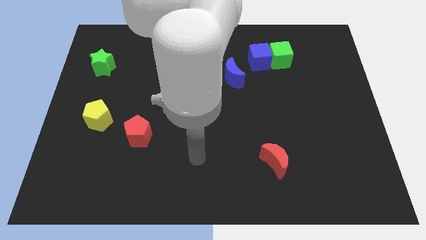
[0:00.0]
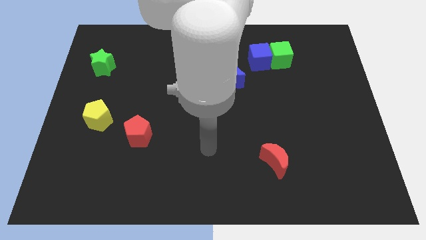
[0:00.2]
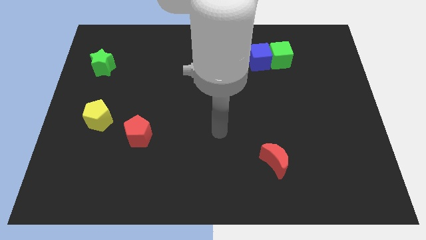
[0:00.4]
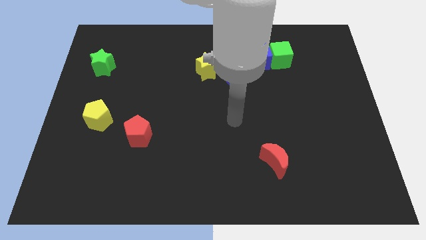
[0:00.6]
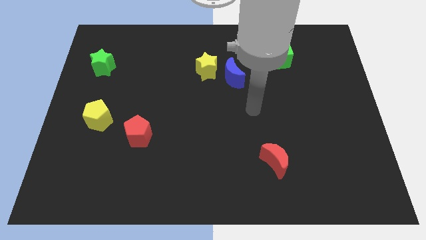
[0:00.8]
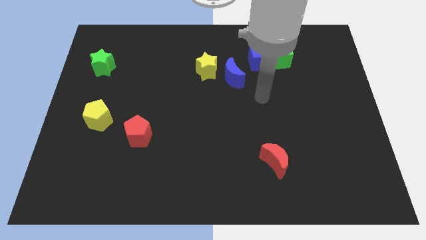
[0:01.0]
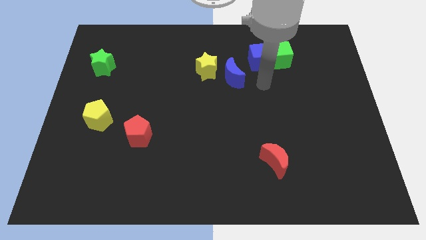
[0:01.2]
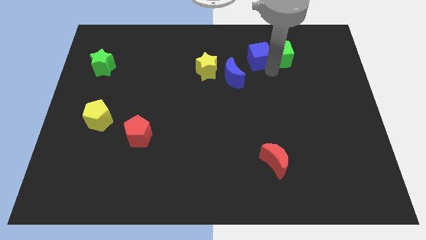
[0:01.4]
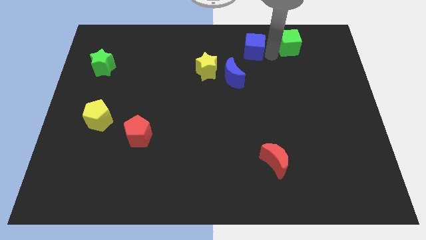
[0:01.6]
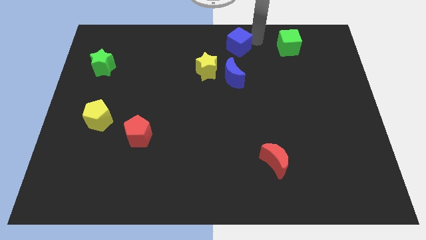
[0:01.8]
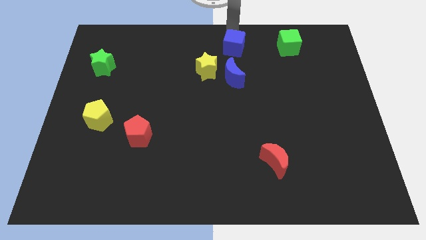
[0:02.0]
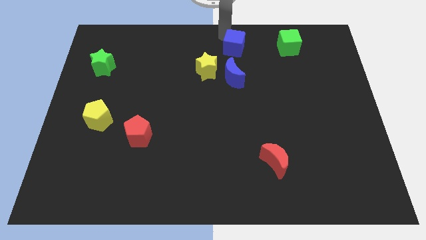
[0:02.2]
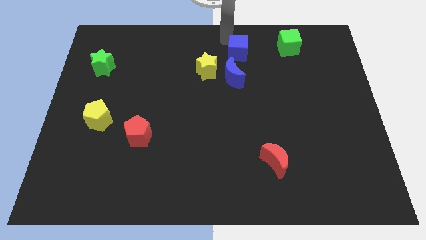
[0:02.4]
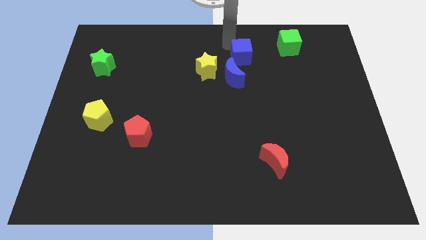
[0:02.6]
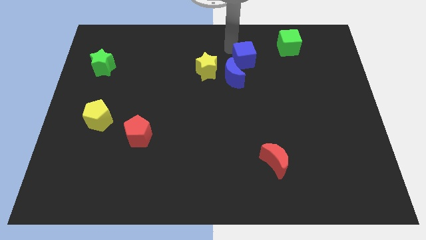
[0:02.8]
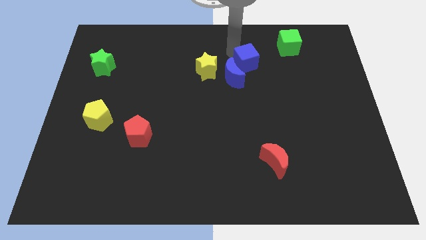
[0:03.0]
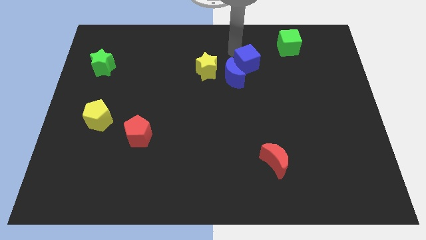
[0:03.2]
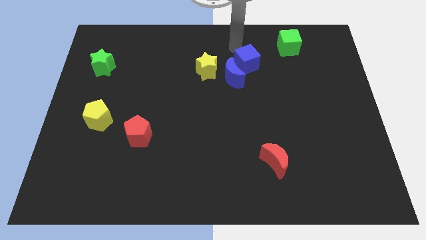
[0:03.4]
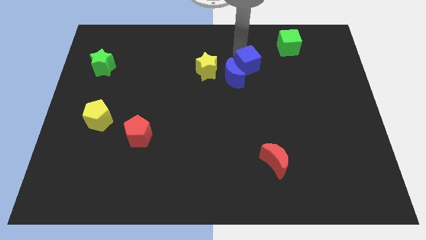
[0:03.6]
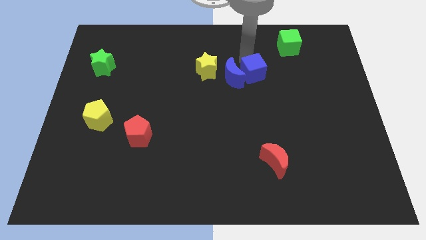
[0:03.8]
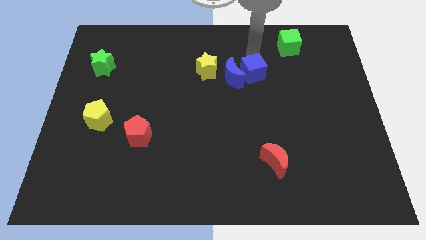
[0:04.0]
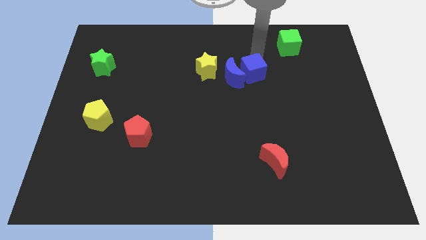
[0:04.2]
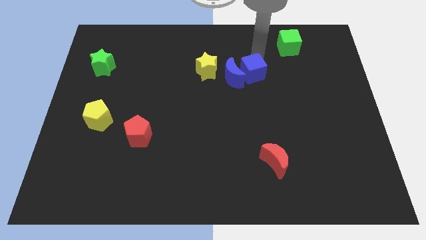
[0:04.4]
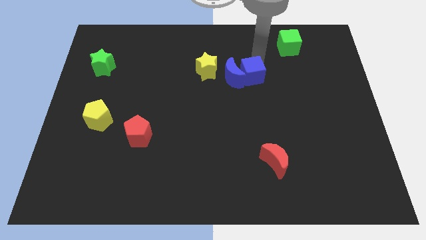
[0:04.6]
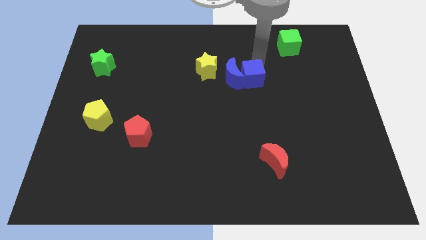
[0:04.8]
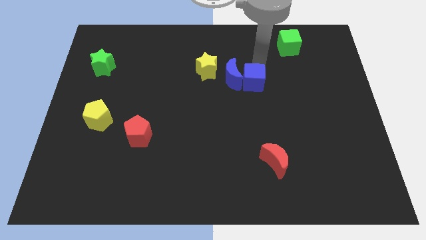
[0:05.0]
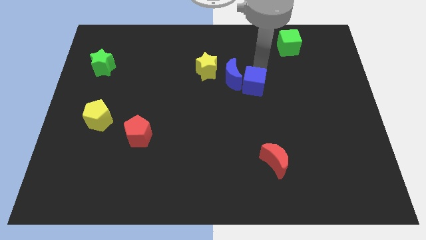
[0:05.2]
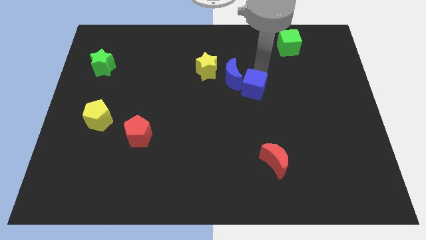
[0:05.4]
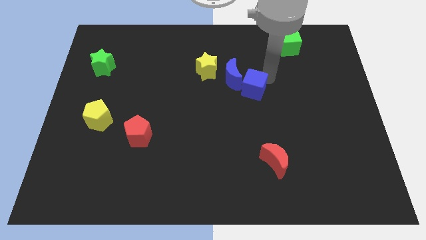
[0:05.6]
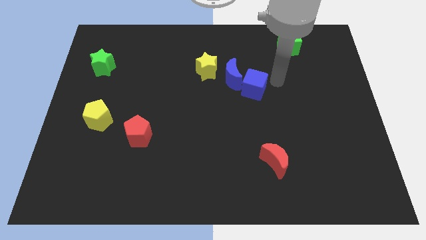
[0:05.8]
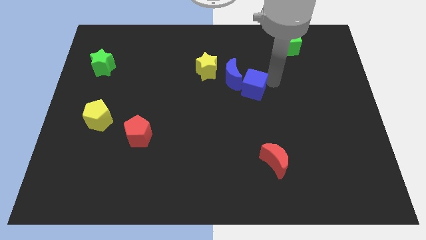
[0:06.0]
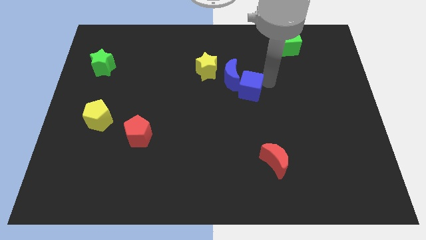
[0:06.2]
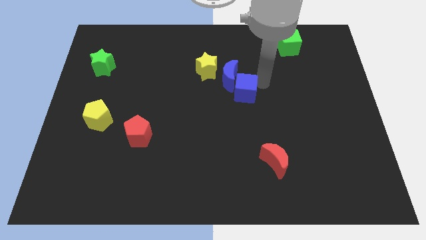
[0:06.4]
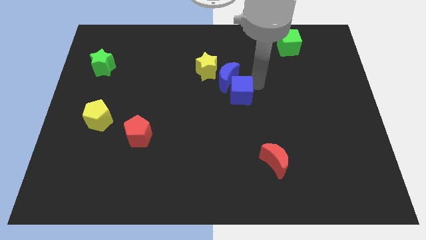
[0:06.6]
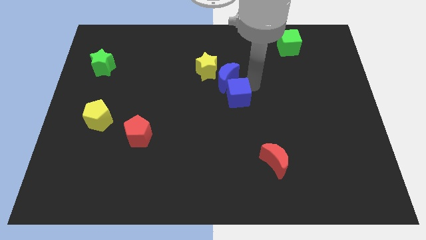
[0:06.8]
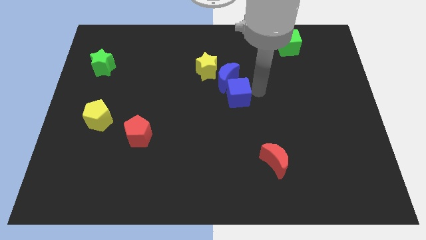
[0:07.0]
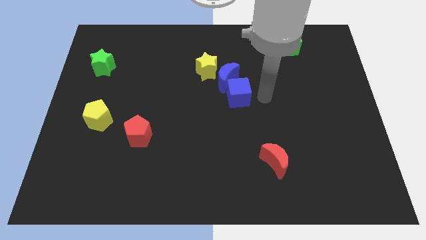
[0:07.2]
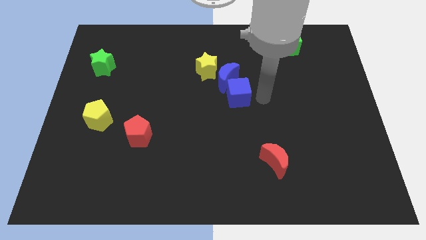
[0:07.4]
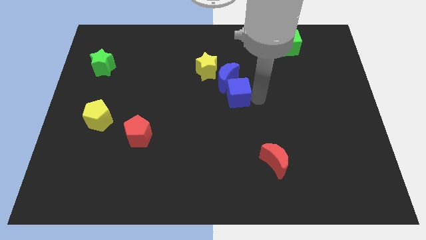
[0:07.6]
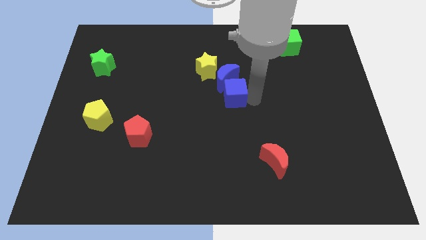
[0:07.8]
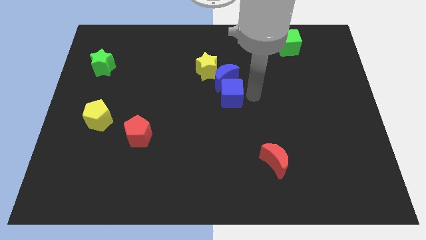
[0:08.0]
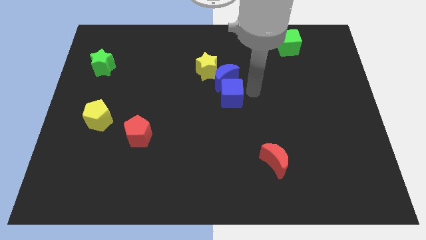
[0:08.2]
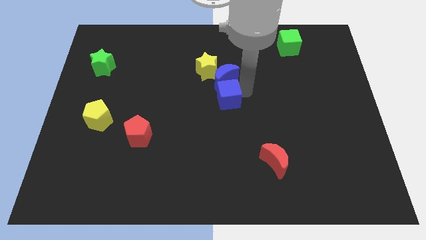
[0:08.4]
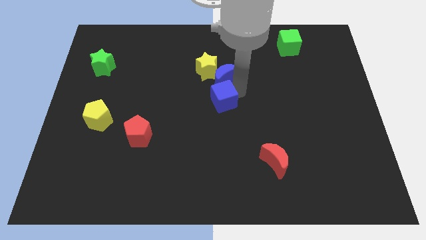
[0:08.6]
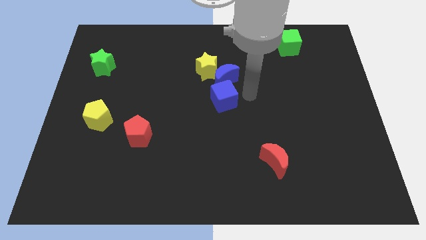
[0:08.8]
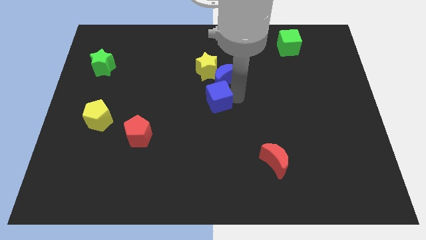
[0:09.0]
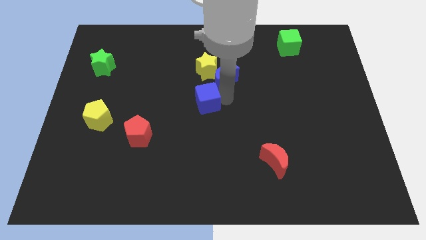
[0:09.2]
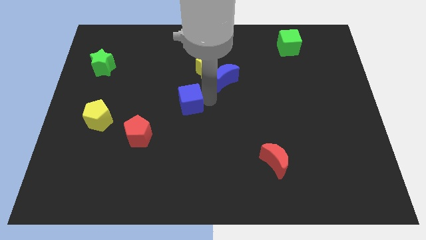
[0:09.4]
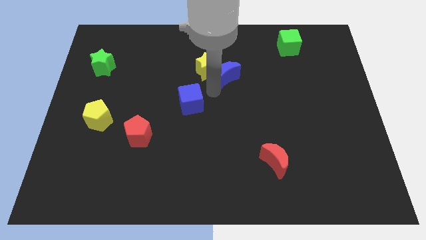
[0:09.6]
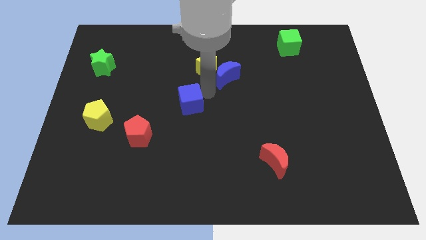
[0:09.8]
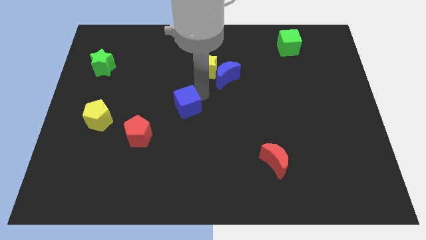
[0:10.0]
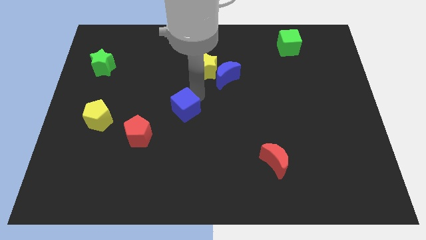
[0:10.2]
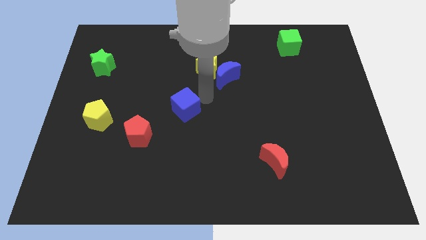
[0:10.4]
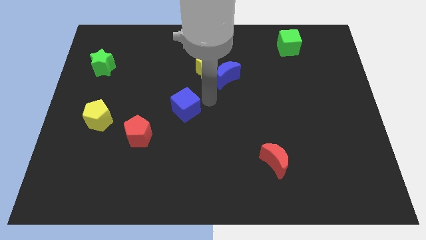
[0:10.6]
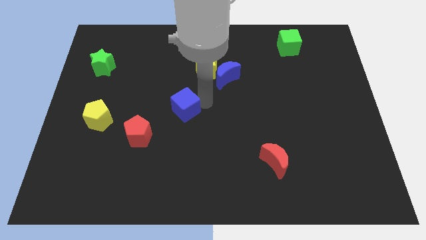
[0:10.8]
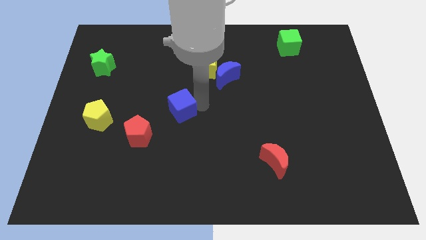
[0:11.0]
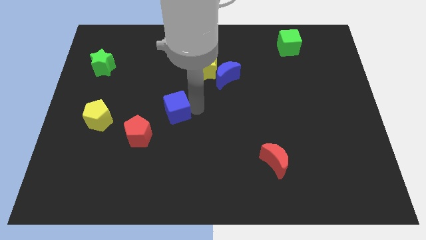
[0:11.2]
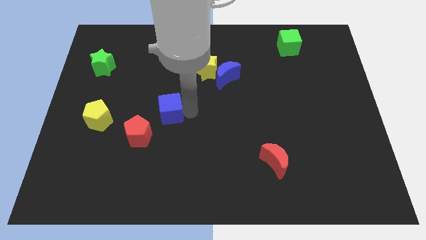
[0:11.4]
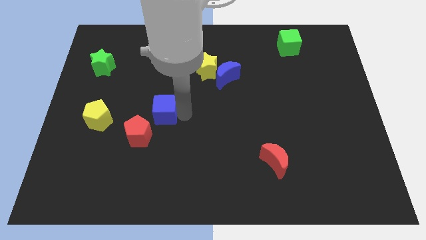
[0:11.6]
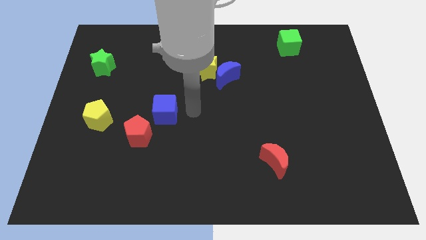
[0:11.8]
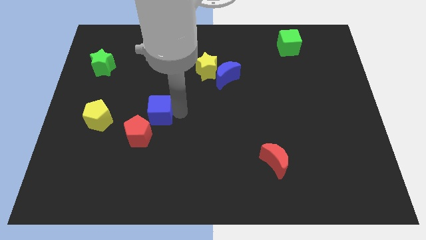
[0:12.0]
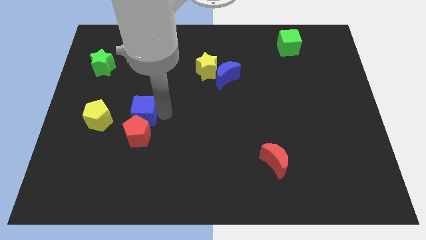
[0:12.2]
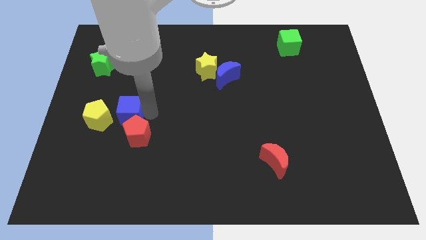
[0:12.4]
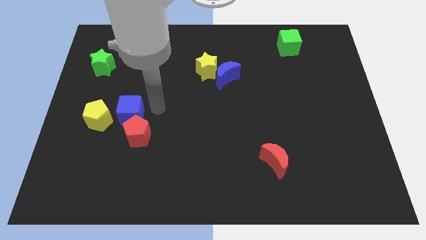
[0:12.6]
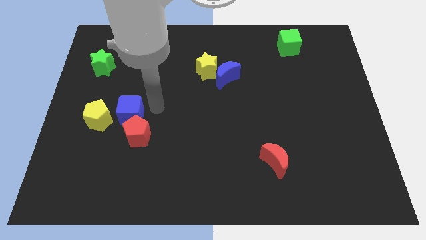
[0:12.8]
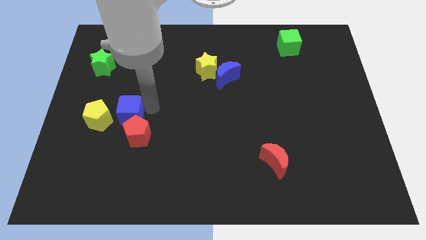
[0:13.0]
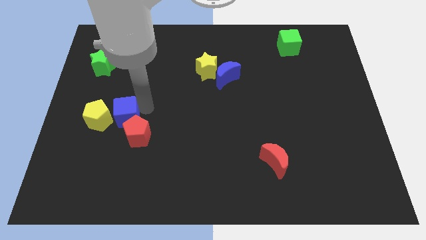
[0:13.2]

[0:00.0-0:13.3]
push the blue cube towards the yellow pentagon

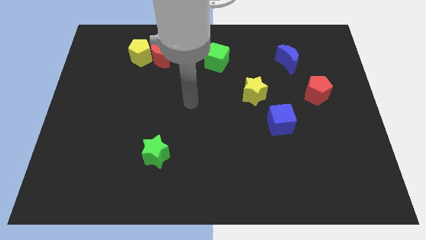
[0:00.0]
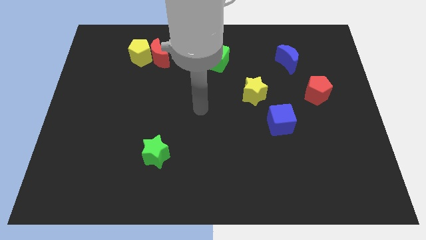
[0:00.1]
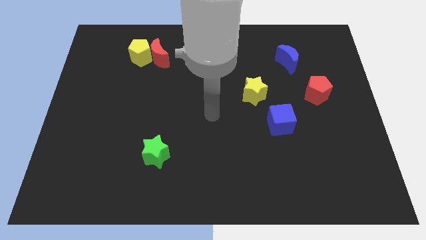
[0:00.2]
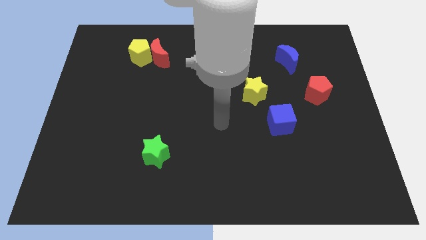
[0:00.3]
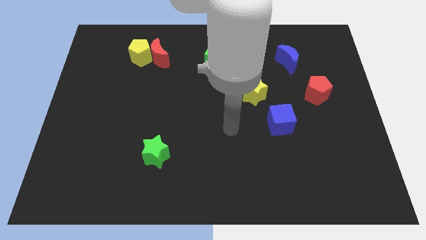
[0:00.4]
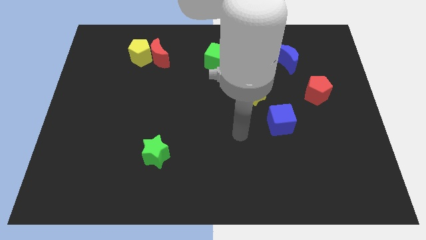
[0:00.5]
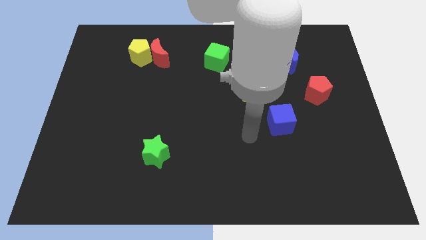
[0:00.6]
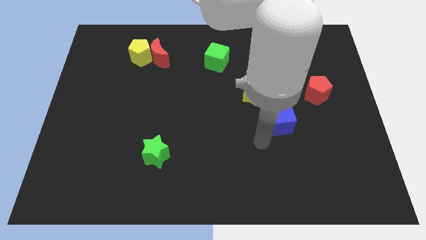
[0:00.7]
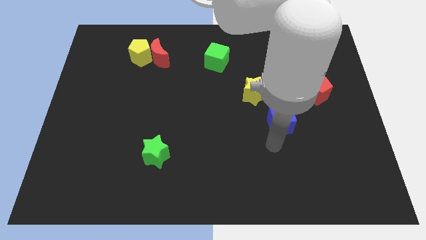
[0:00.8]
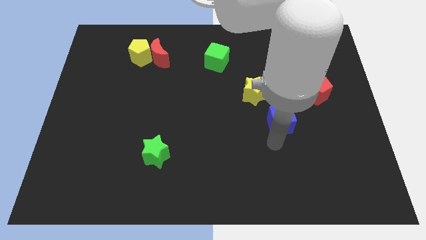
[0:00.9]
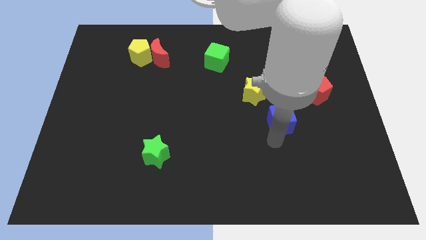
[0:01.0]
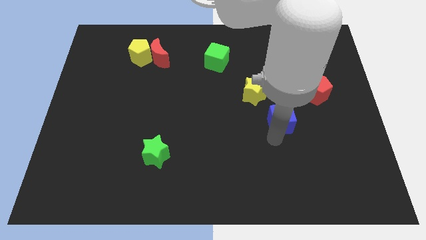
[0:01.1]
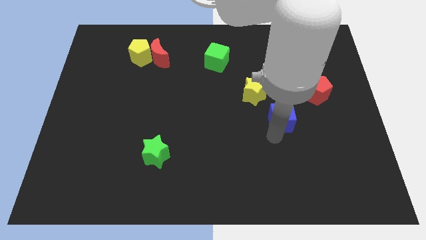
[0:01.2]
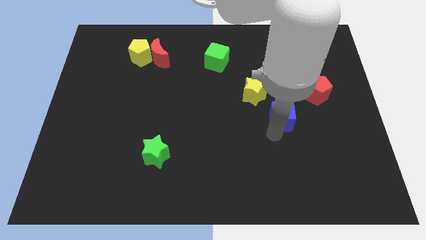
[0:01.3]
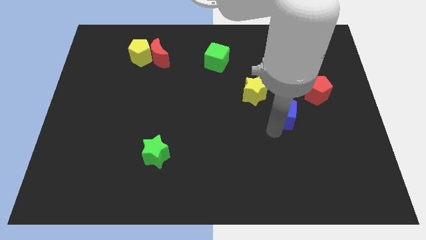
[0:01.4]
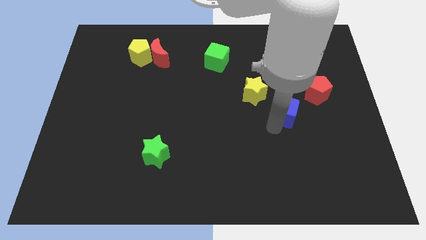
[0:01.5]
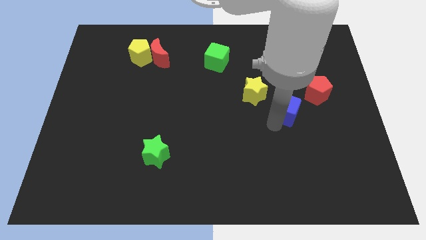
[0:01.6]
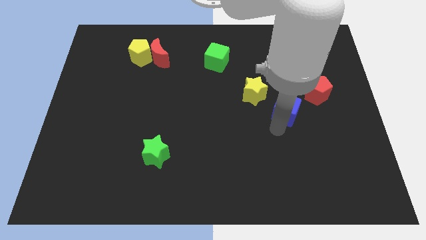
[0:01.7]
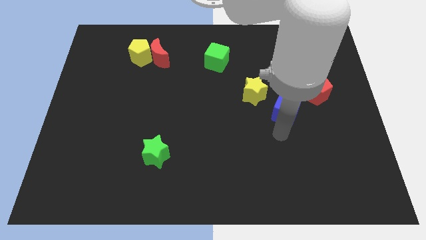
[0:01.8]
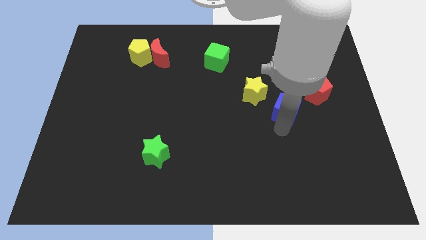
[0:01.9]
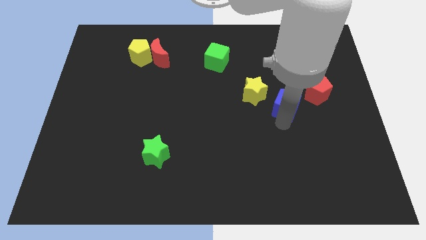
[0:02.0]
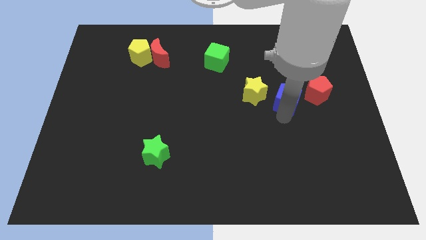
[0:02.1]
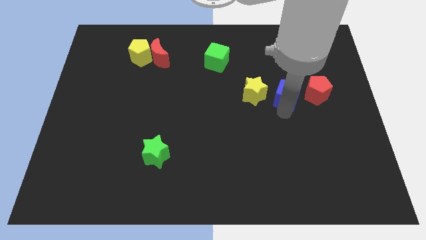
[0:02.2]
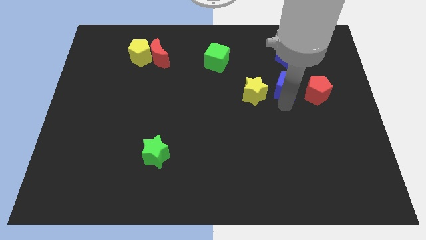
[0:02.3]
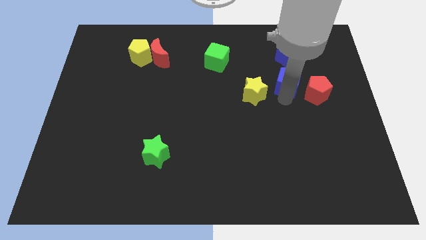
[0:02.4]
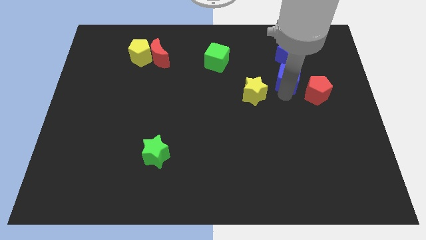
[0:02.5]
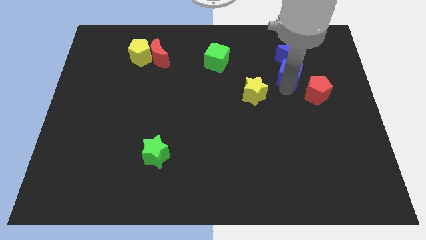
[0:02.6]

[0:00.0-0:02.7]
put the blue cube next to the blue moon
